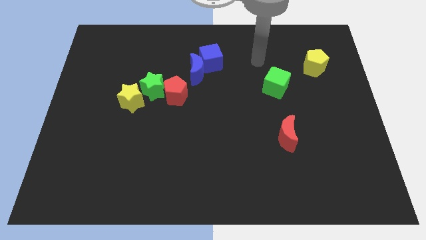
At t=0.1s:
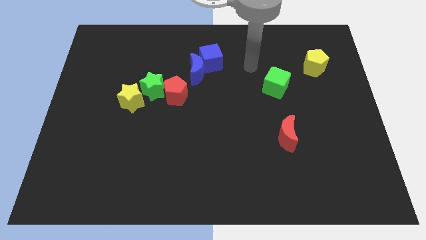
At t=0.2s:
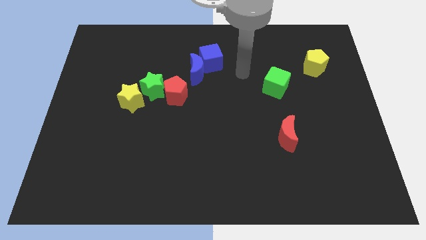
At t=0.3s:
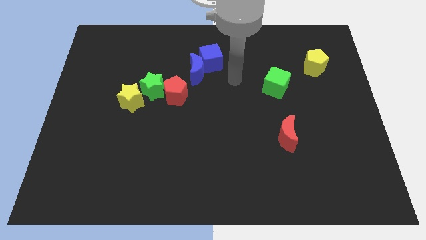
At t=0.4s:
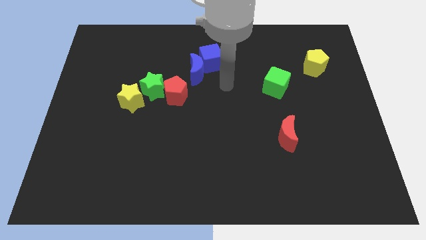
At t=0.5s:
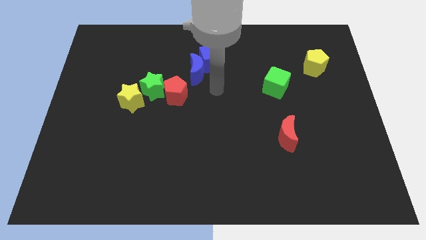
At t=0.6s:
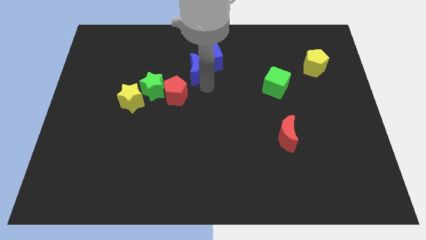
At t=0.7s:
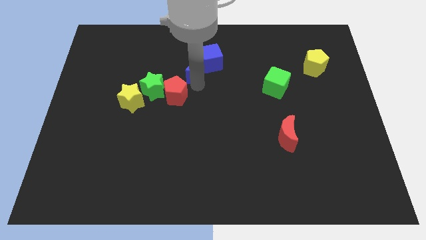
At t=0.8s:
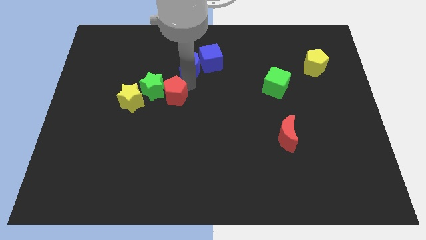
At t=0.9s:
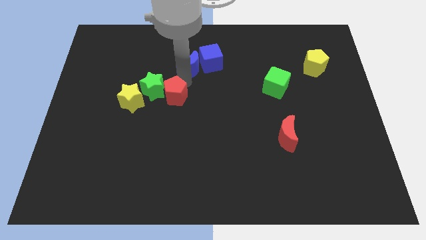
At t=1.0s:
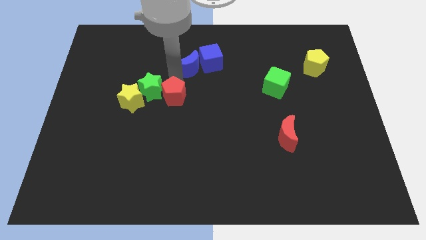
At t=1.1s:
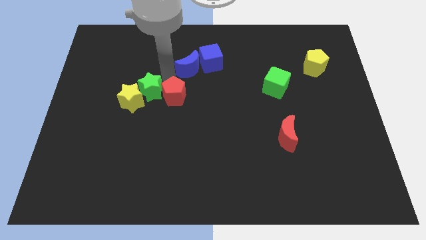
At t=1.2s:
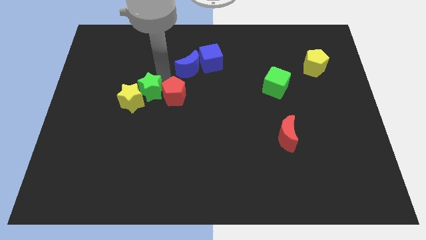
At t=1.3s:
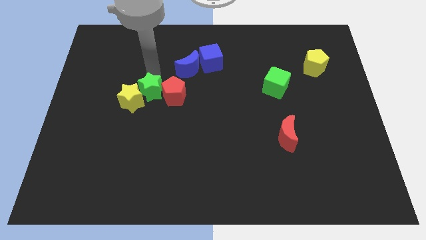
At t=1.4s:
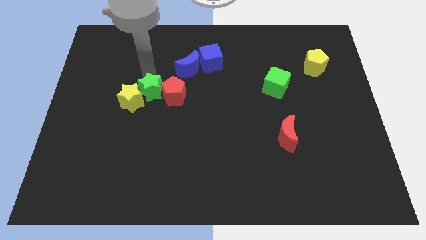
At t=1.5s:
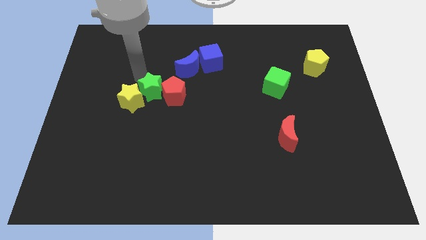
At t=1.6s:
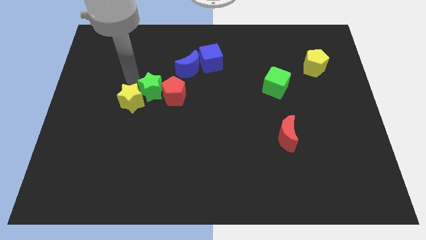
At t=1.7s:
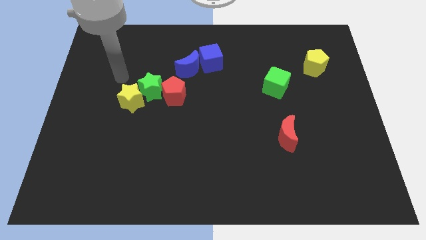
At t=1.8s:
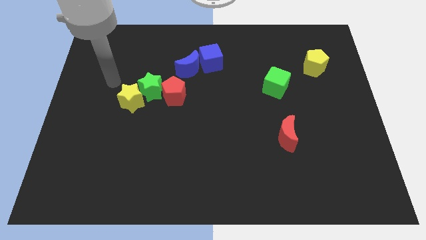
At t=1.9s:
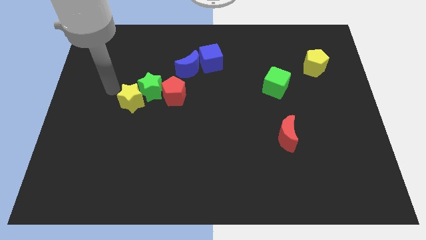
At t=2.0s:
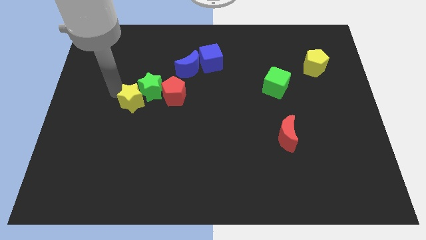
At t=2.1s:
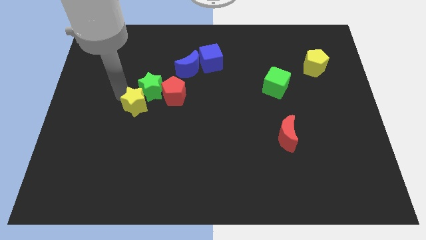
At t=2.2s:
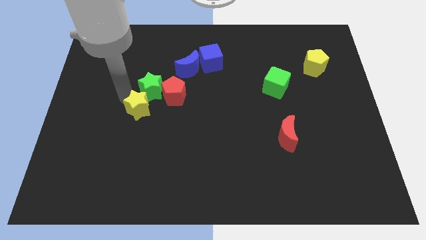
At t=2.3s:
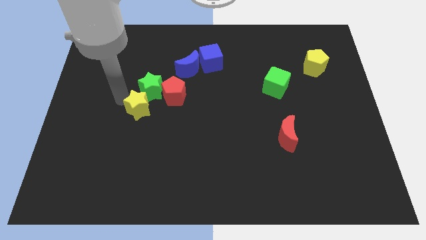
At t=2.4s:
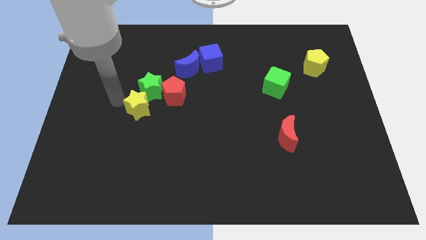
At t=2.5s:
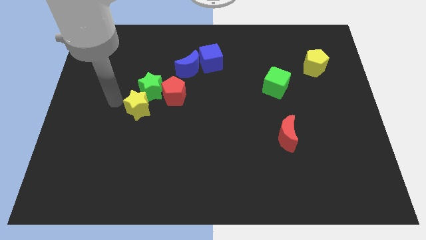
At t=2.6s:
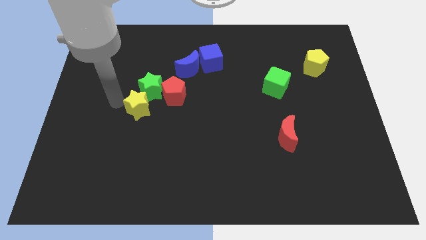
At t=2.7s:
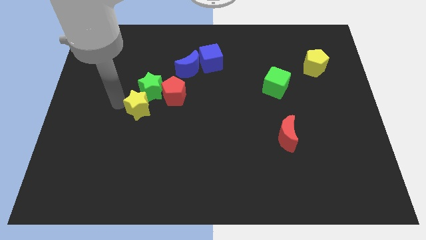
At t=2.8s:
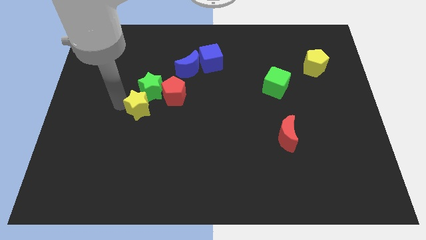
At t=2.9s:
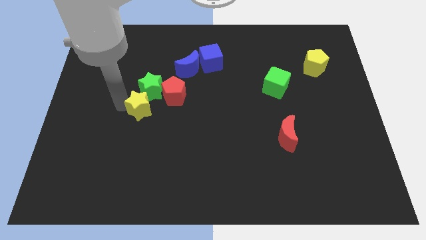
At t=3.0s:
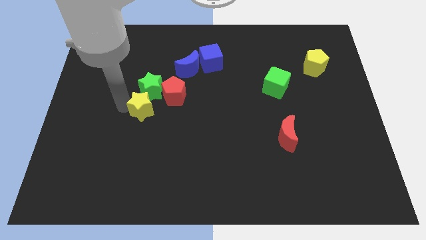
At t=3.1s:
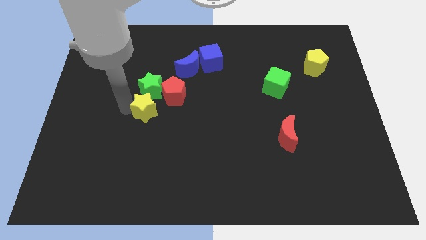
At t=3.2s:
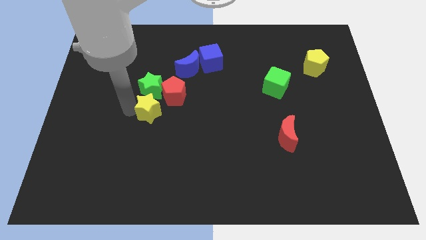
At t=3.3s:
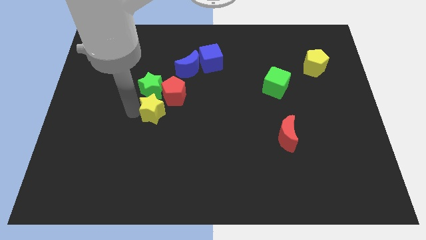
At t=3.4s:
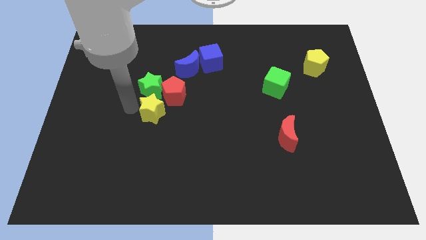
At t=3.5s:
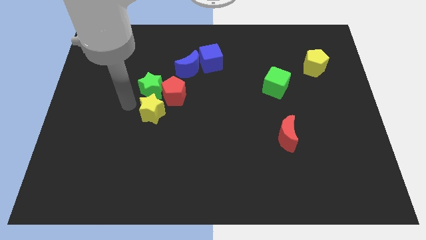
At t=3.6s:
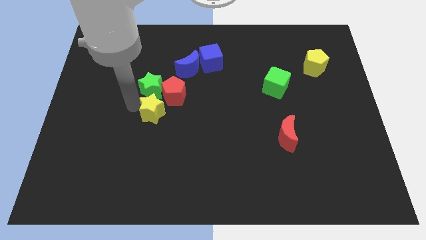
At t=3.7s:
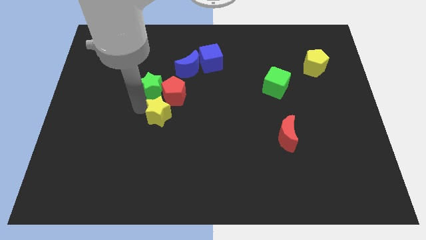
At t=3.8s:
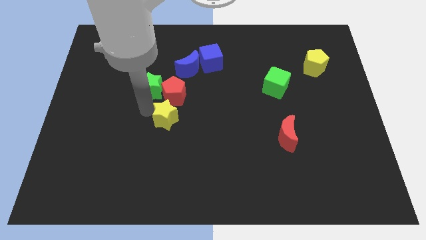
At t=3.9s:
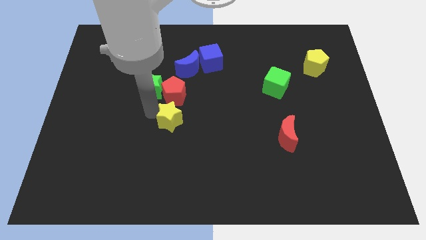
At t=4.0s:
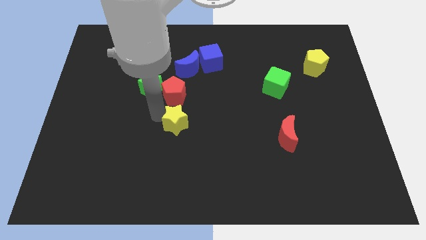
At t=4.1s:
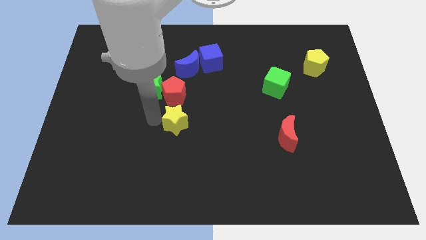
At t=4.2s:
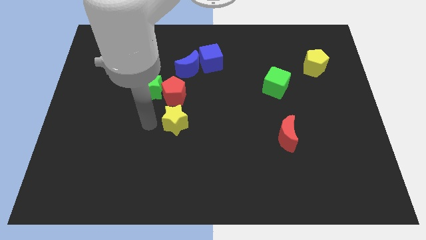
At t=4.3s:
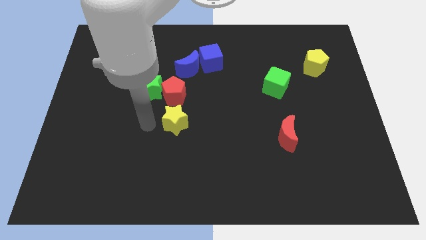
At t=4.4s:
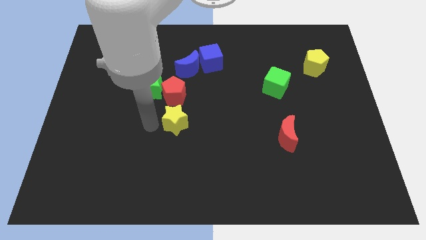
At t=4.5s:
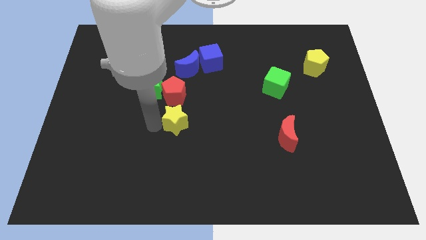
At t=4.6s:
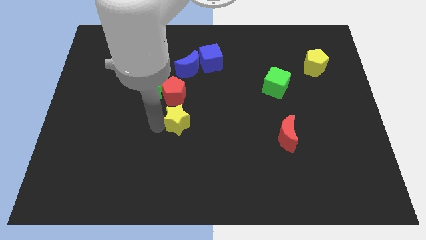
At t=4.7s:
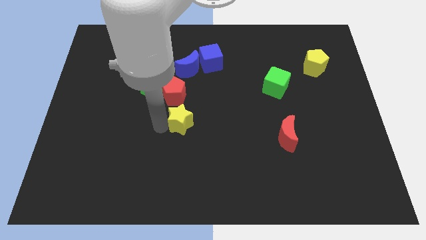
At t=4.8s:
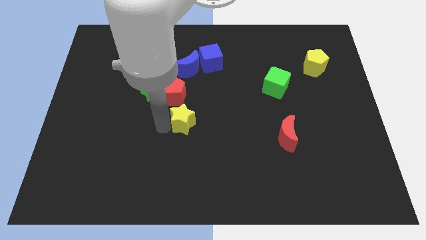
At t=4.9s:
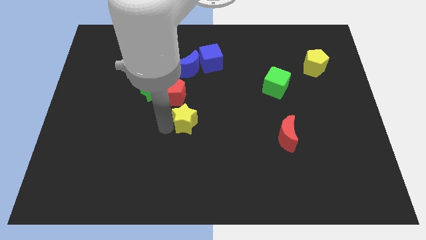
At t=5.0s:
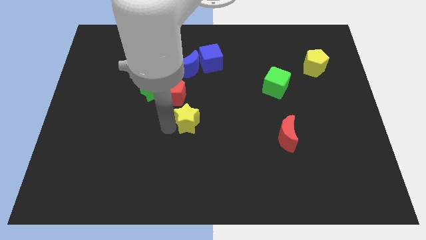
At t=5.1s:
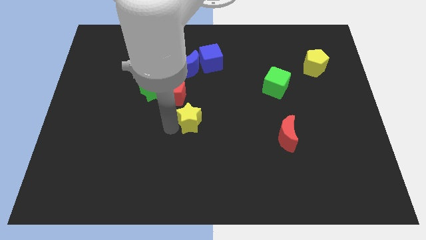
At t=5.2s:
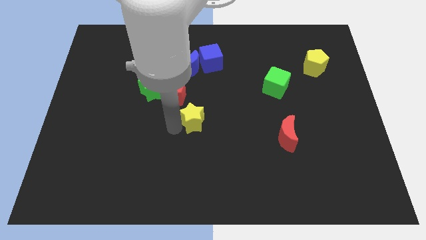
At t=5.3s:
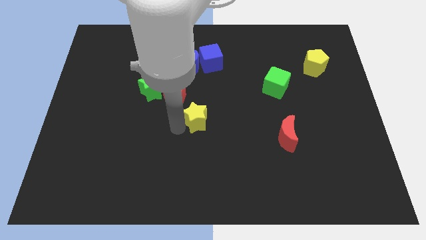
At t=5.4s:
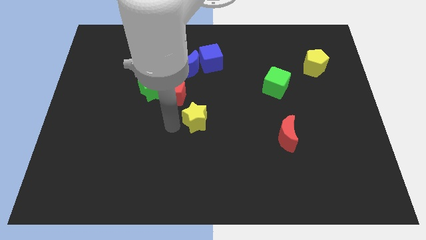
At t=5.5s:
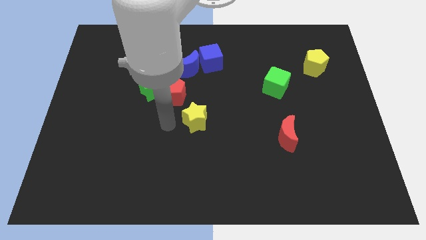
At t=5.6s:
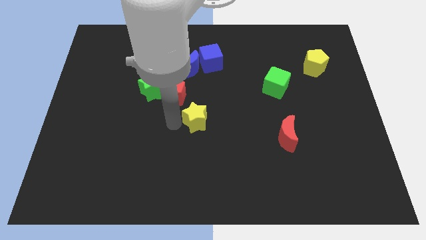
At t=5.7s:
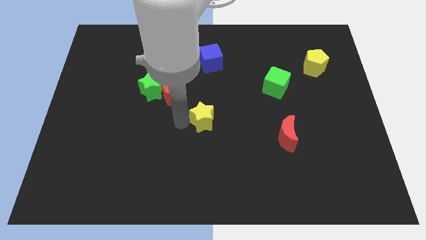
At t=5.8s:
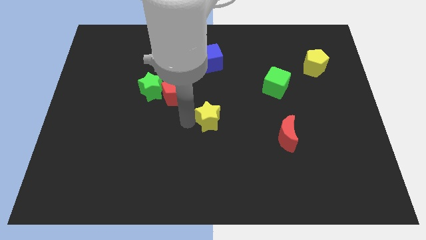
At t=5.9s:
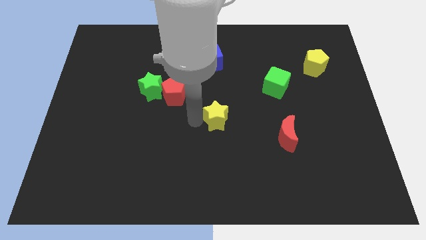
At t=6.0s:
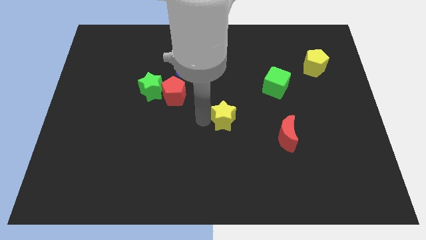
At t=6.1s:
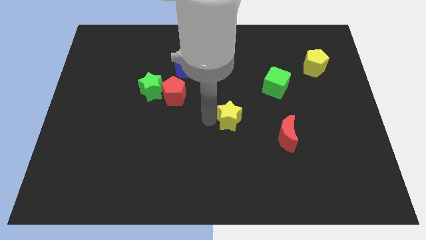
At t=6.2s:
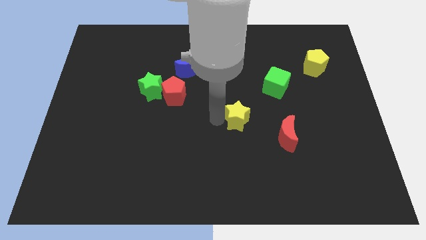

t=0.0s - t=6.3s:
move the yellow star diagonally up and to the left of the red moon
